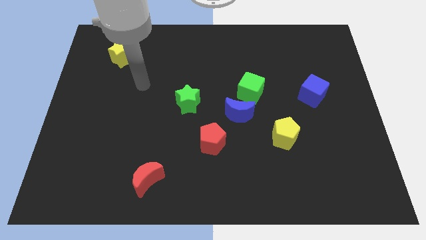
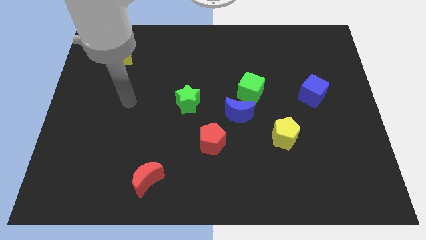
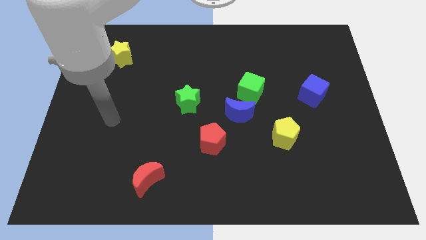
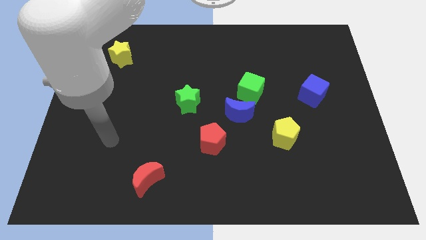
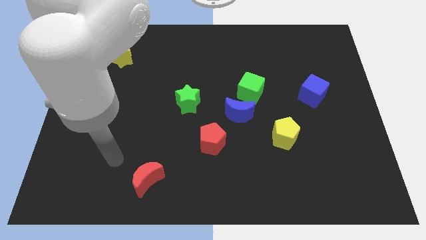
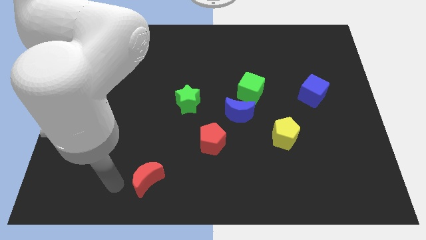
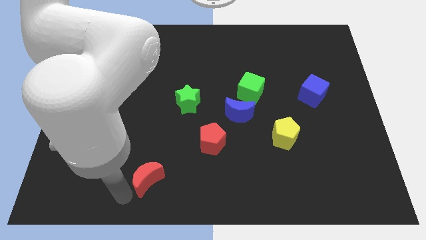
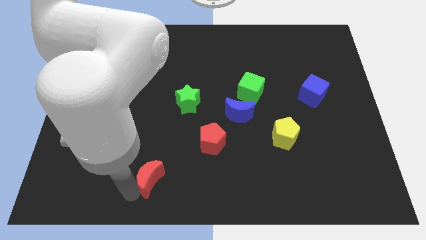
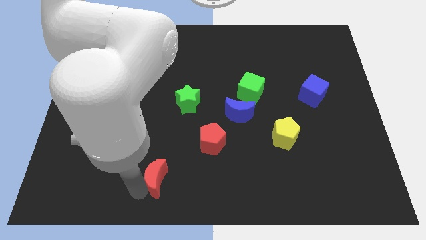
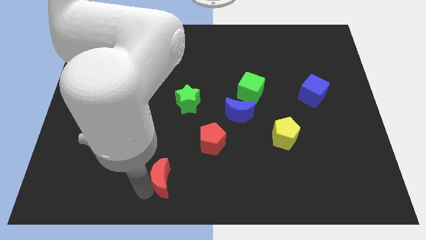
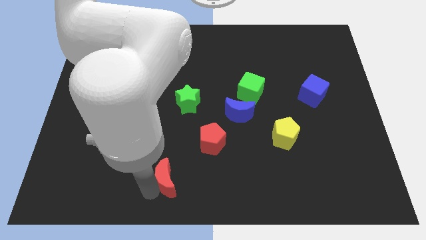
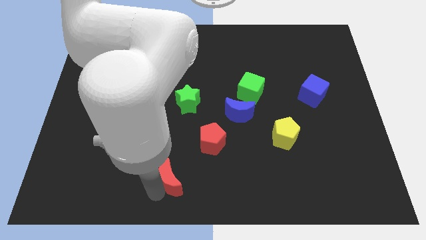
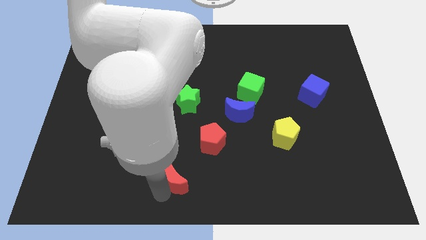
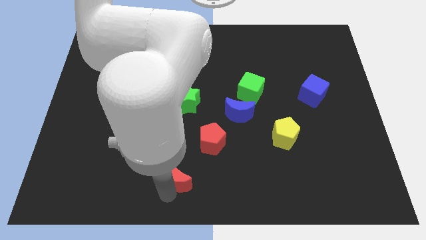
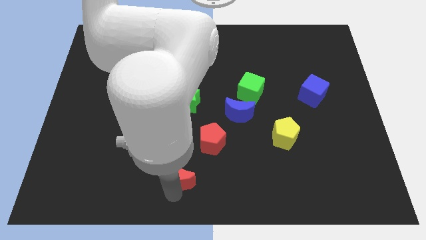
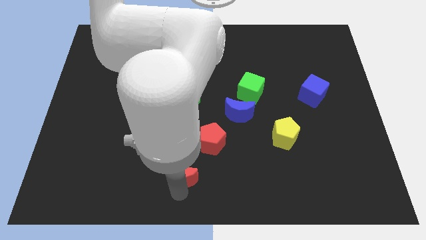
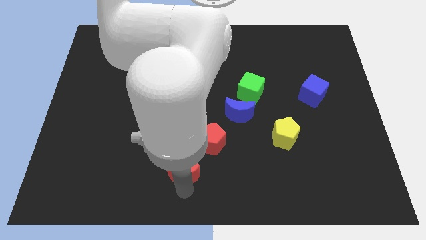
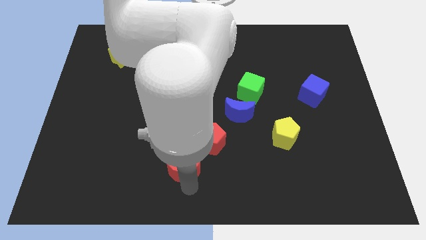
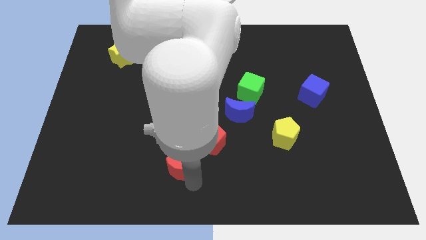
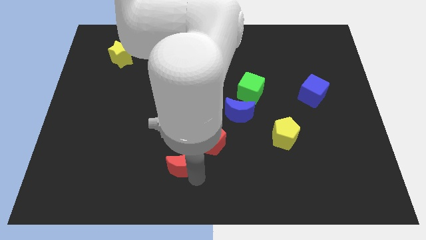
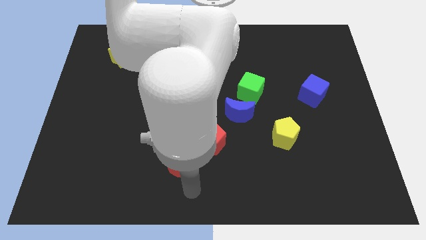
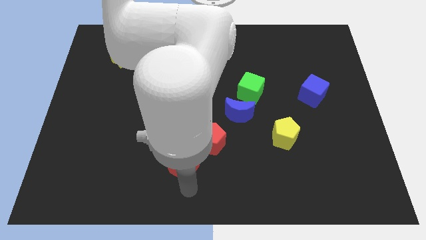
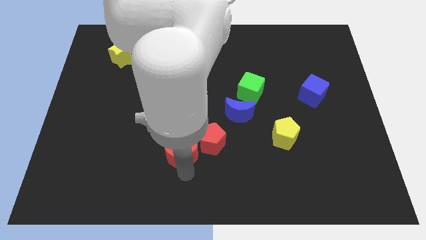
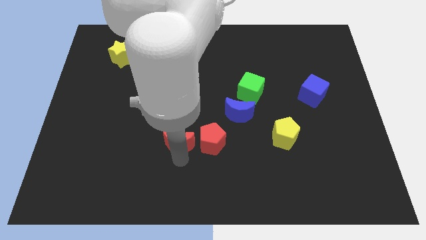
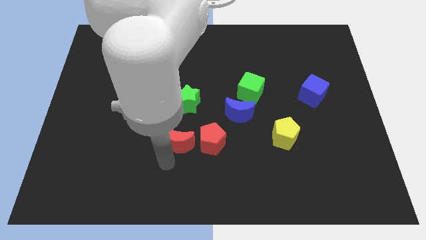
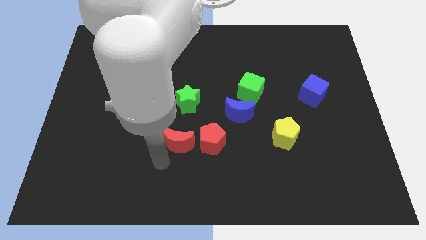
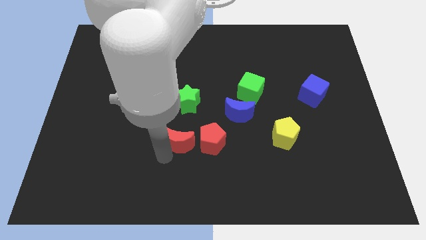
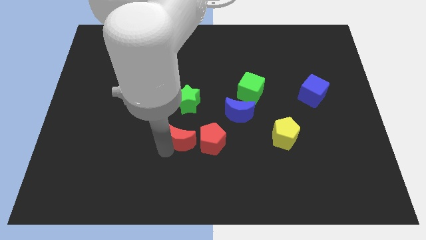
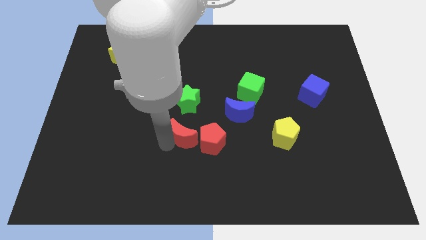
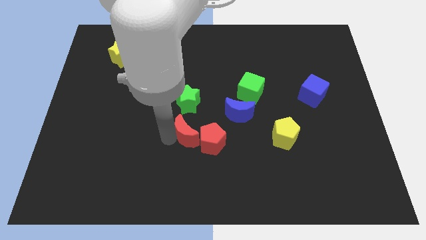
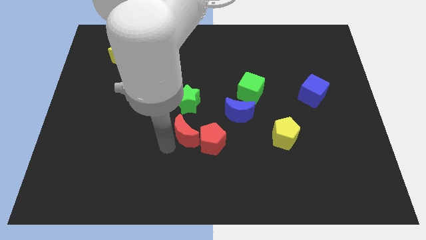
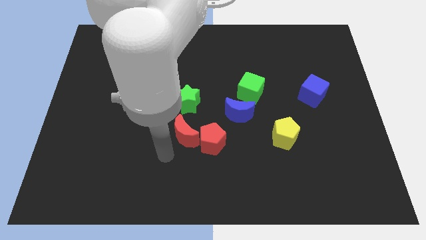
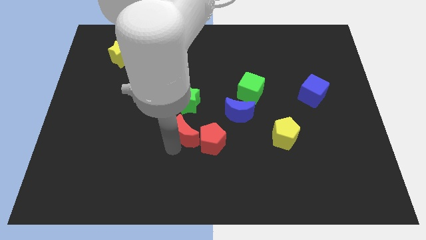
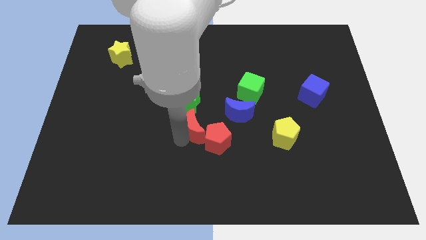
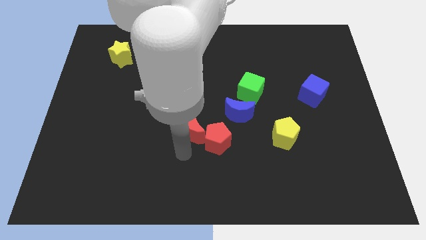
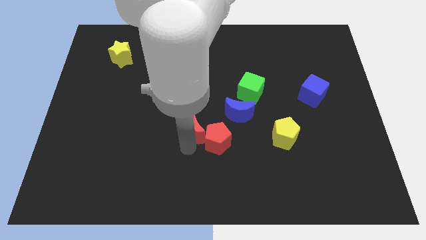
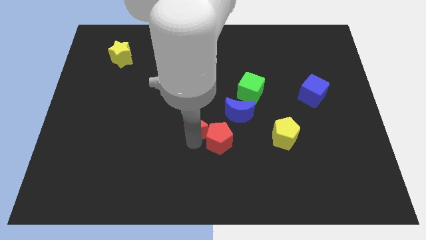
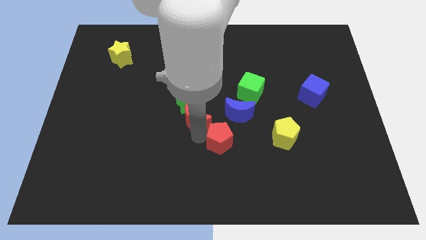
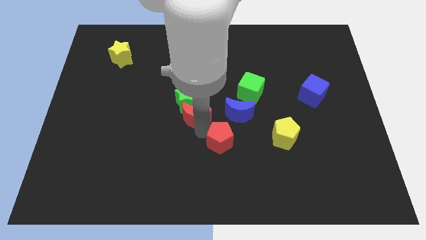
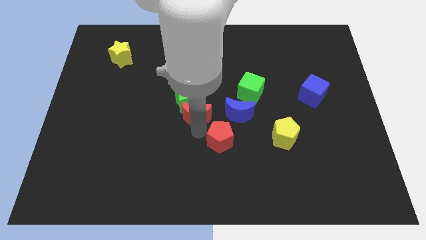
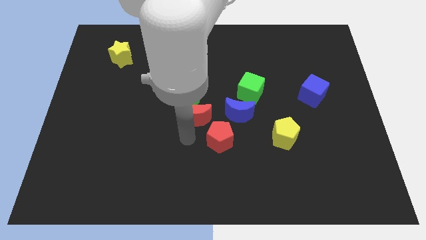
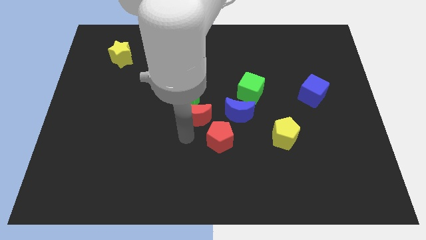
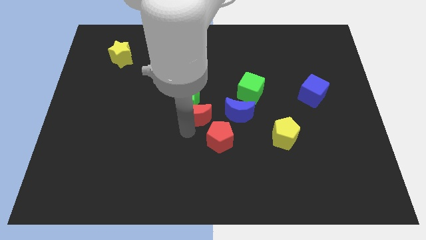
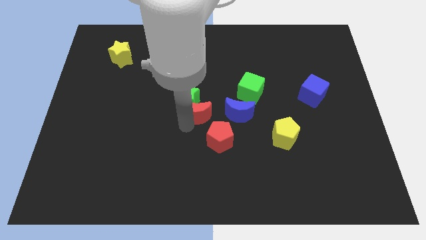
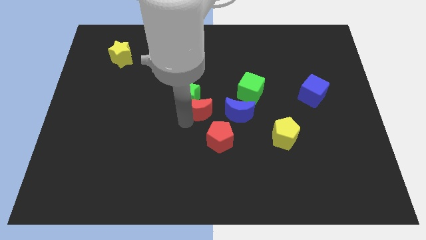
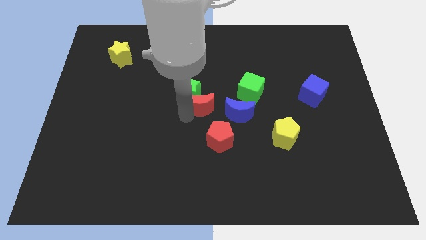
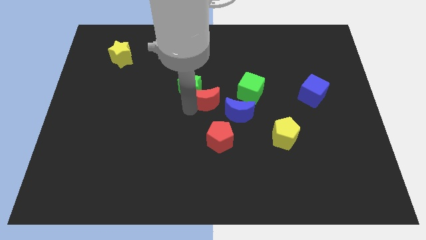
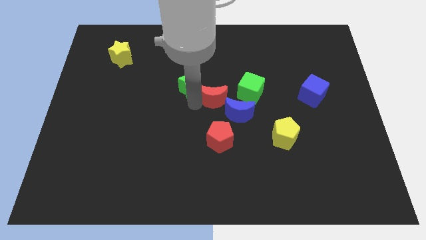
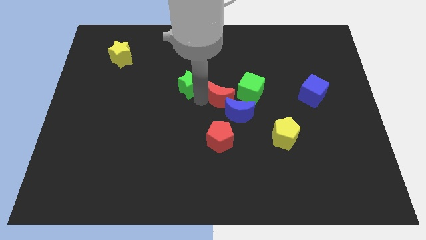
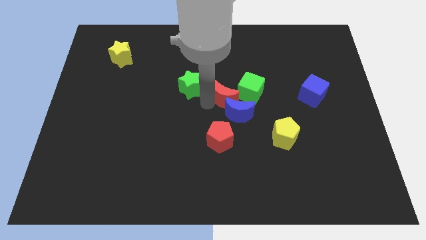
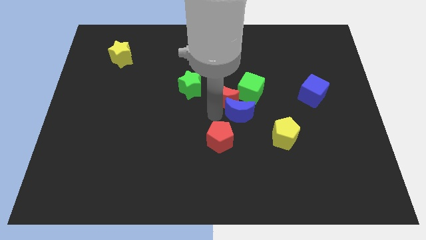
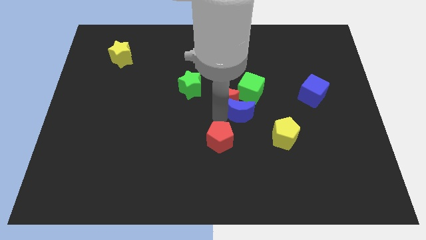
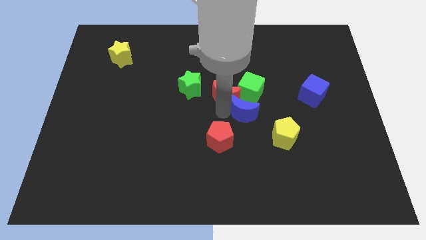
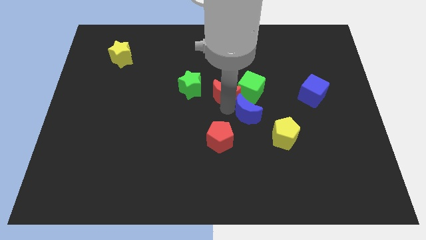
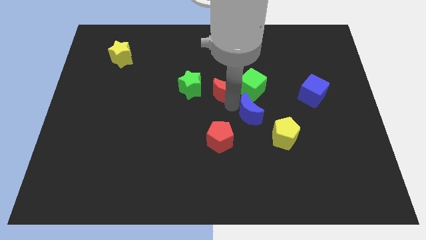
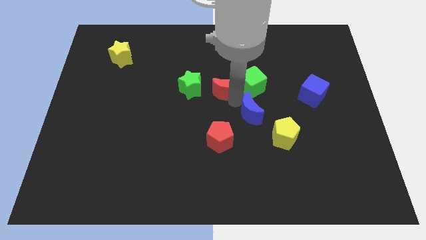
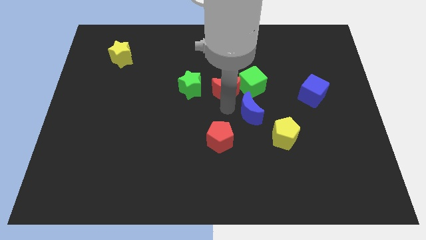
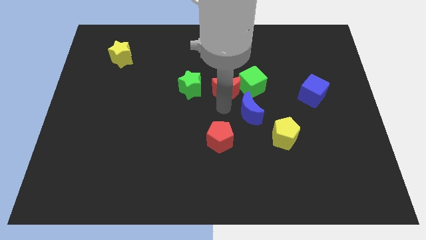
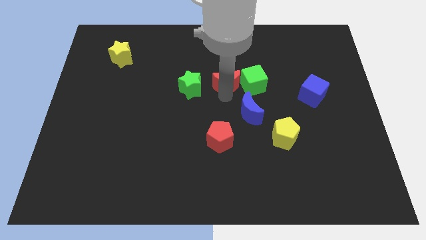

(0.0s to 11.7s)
put the red moon to the top left of the green cube
